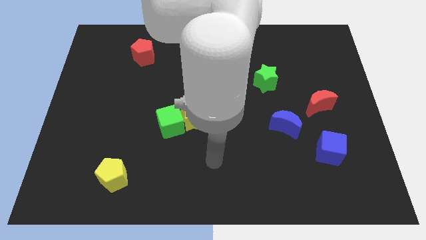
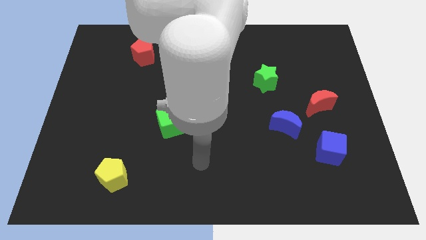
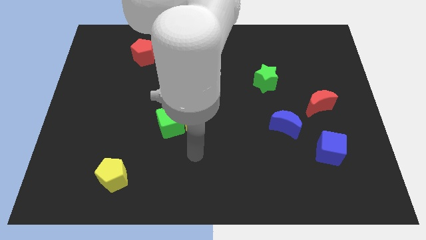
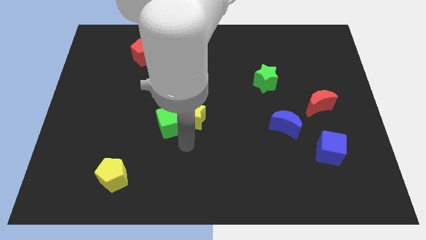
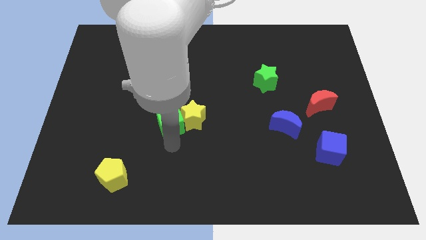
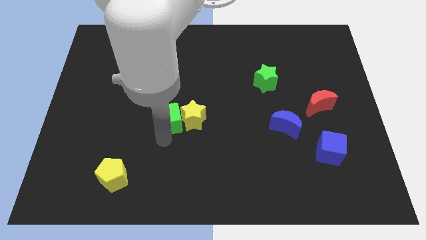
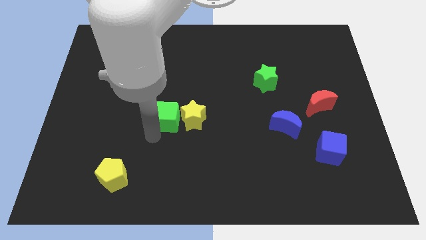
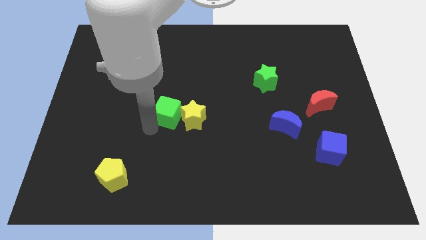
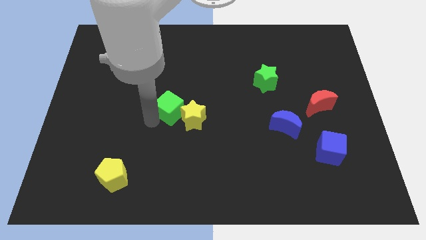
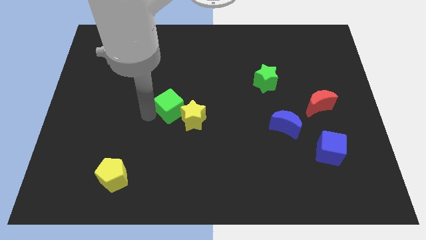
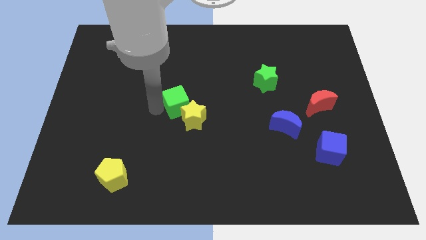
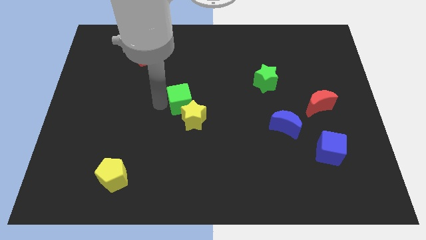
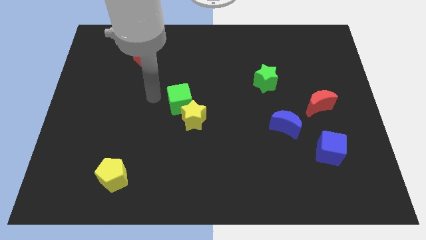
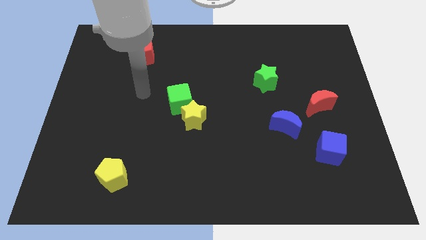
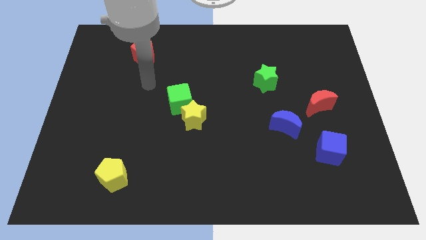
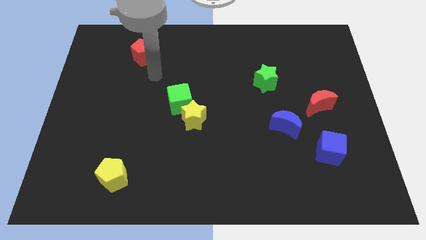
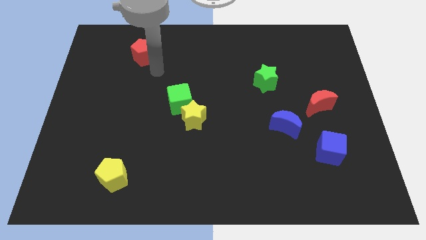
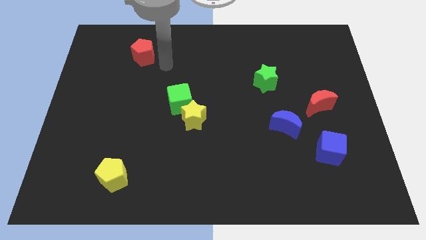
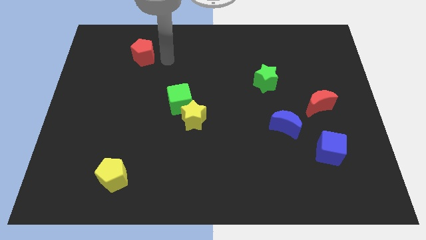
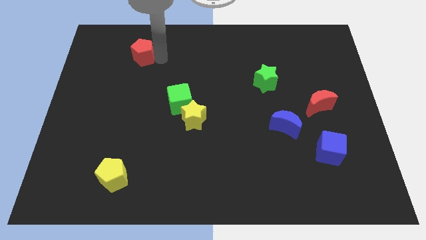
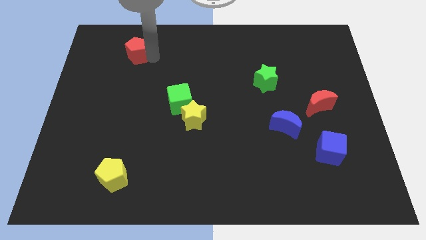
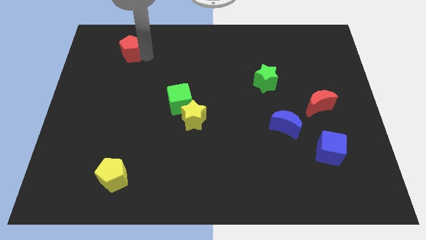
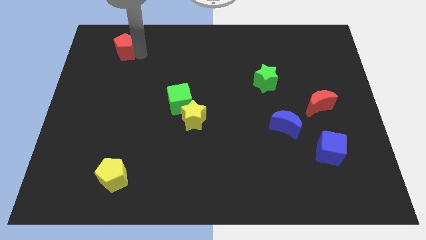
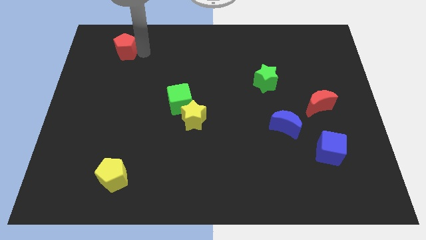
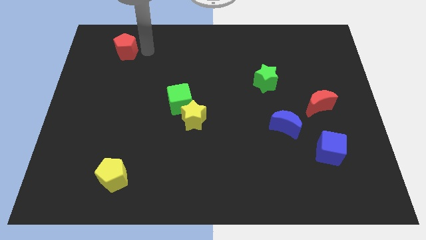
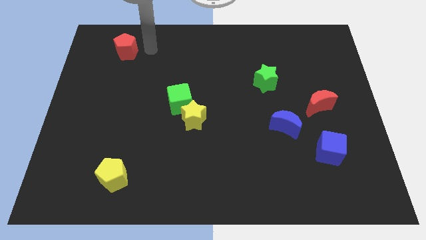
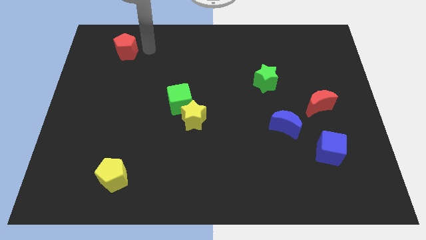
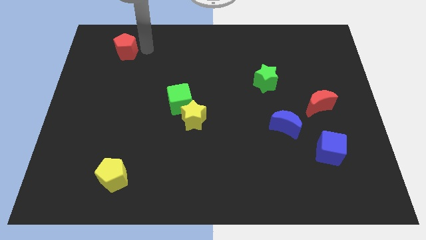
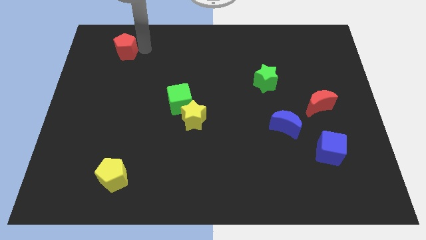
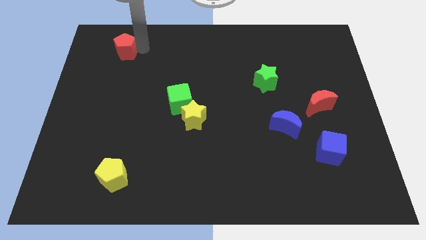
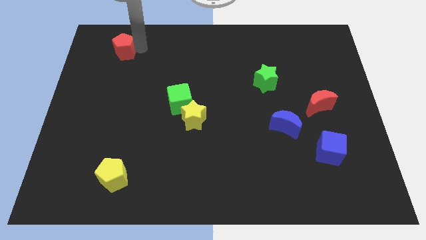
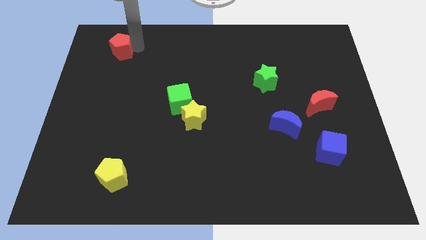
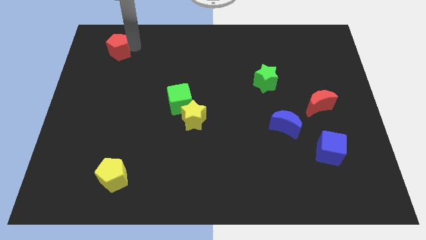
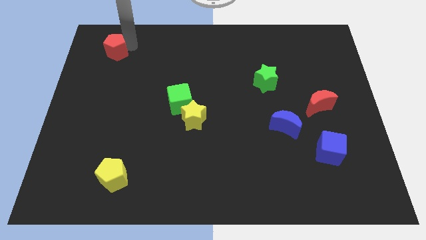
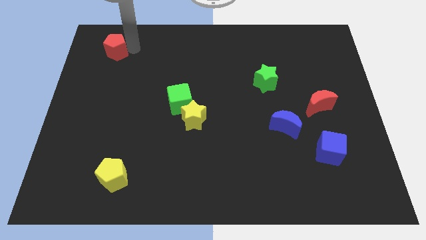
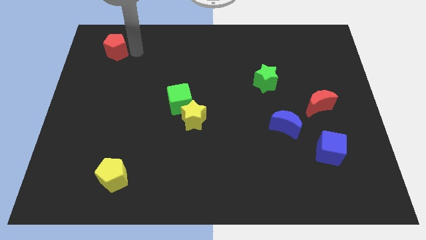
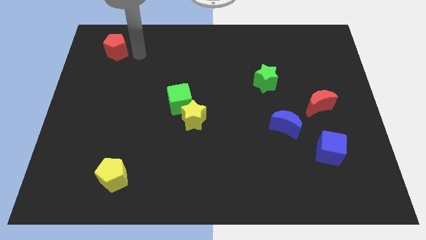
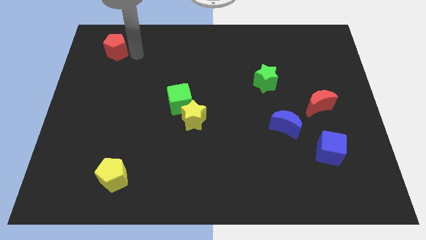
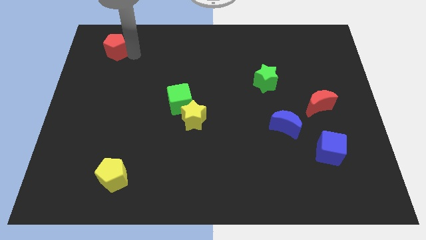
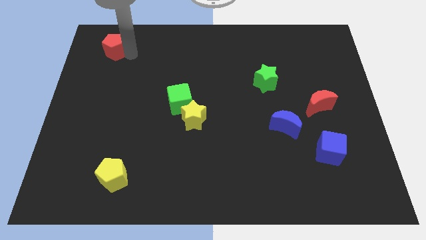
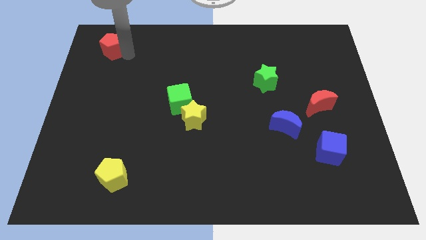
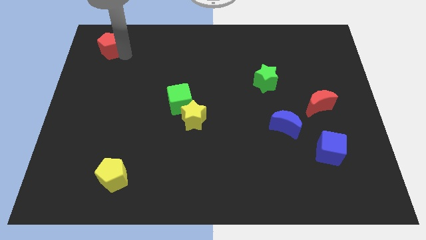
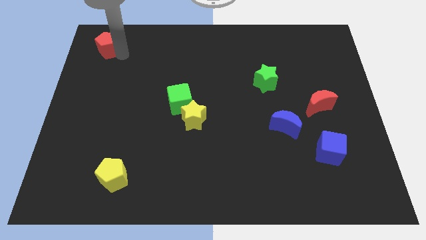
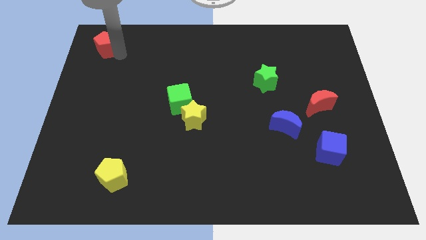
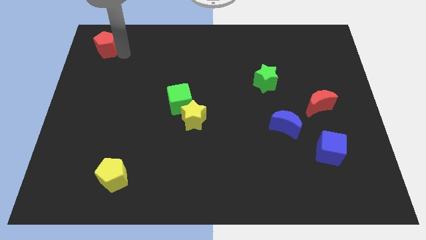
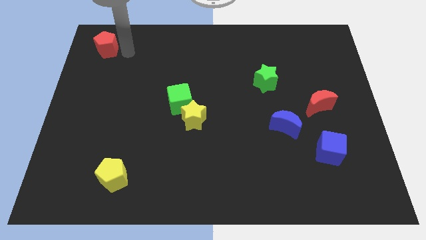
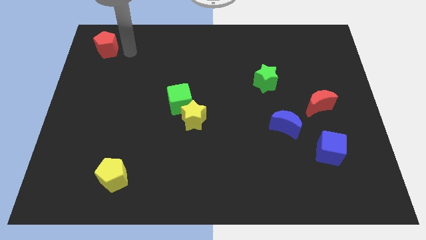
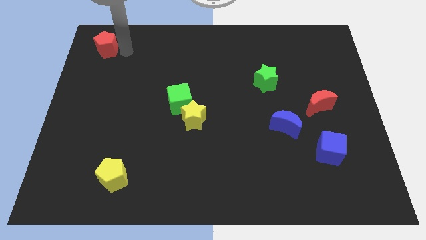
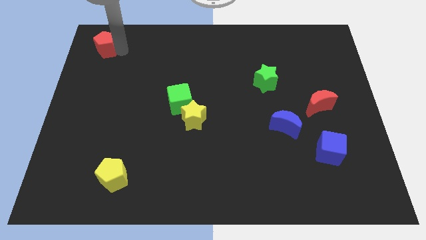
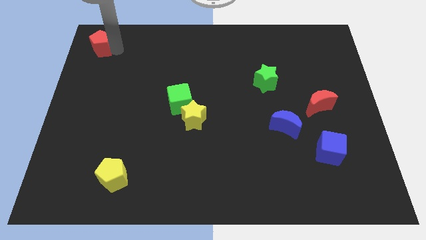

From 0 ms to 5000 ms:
put the red pentagon to the top left of the board

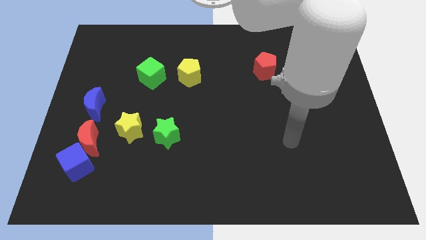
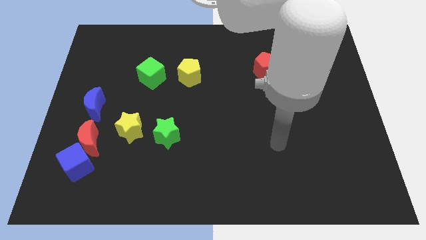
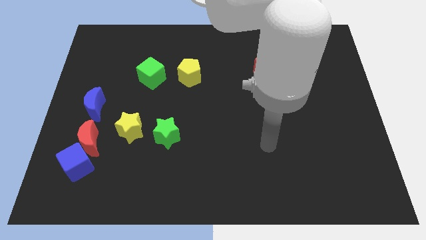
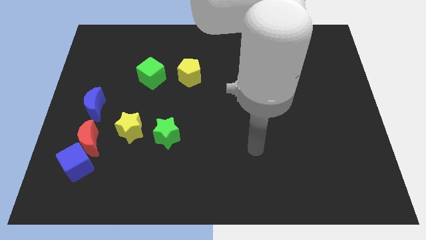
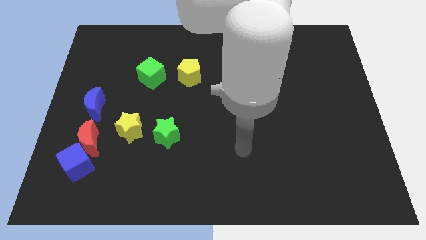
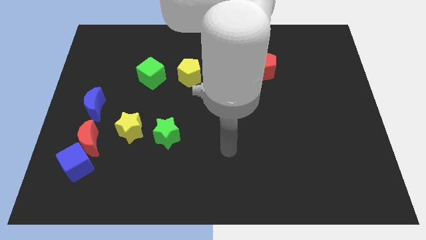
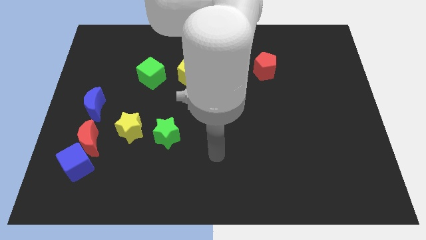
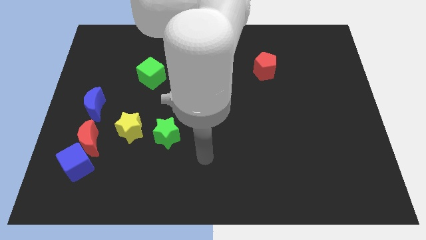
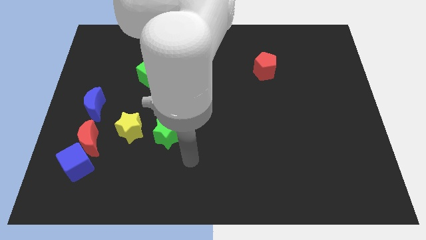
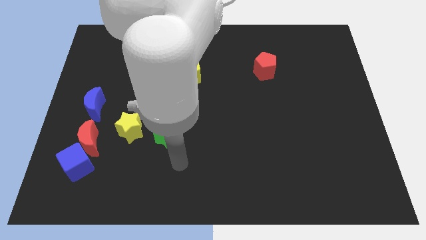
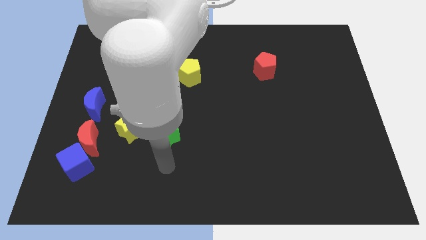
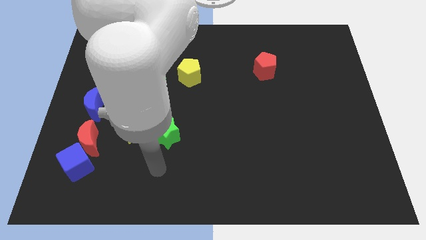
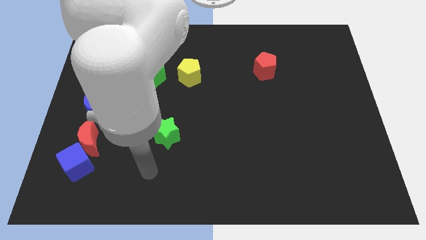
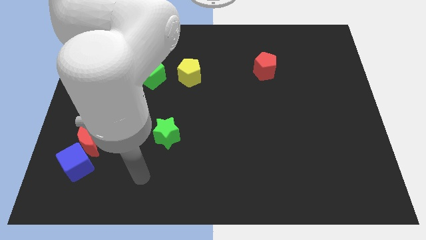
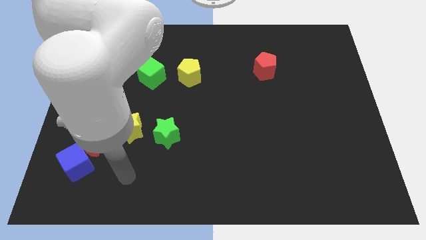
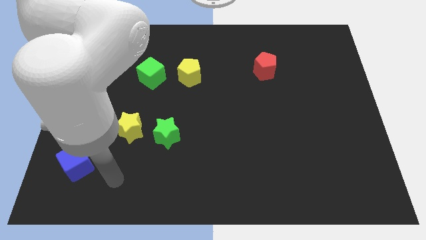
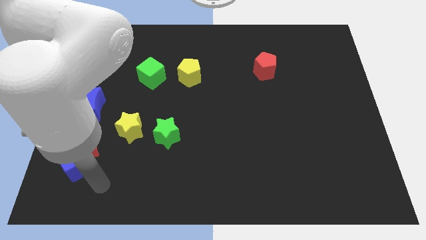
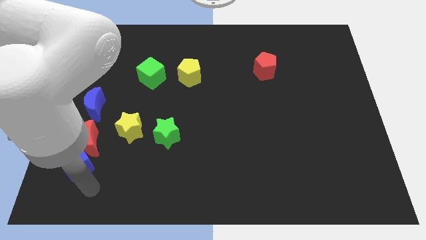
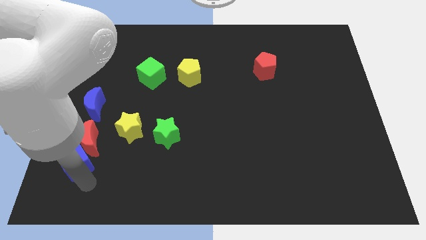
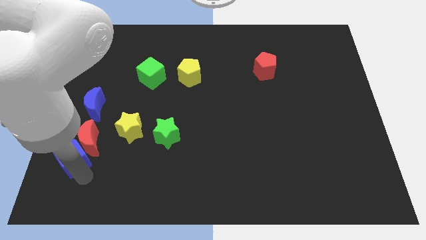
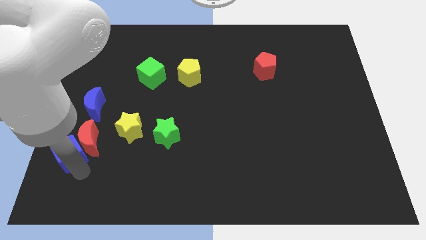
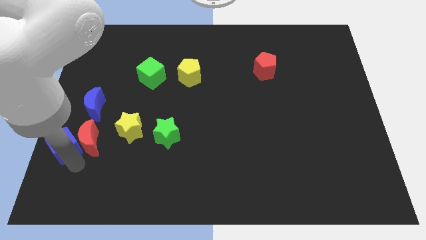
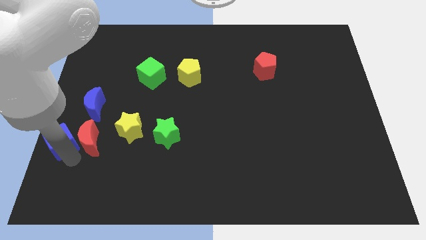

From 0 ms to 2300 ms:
move the blue cube to the center left
